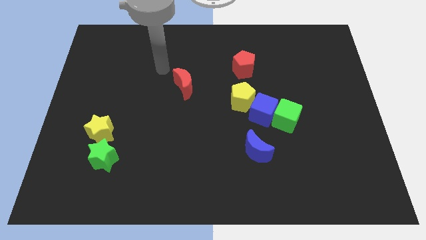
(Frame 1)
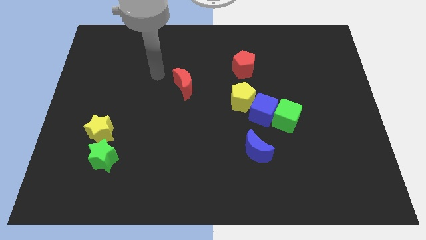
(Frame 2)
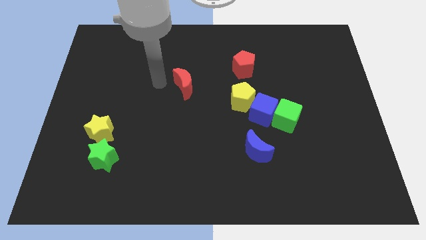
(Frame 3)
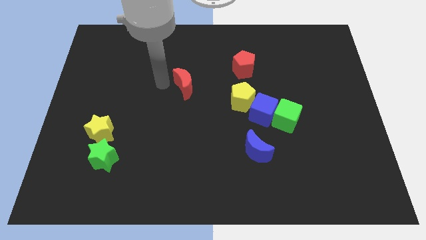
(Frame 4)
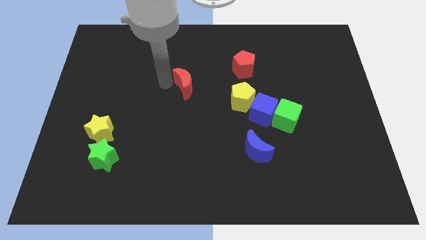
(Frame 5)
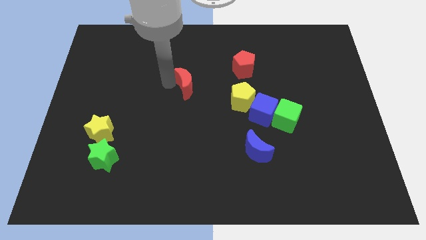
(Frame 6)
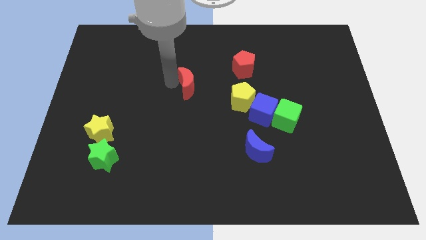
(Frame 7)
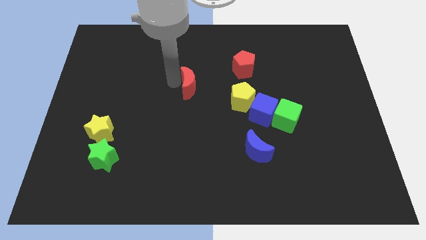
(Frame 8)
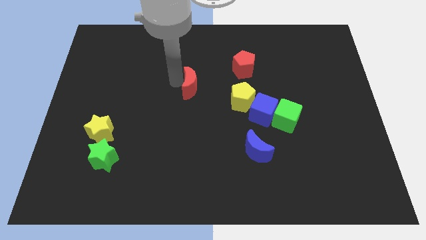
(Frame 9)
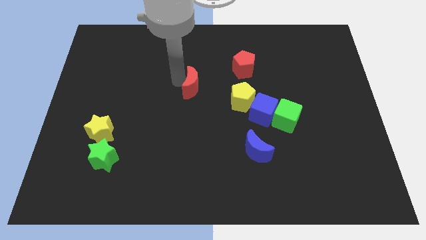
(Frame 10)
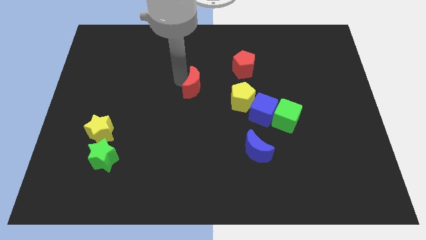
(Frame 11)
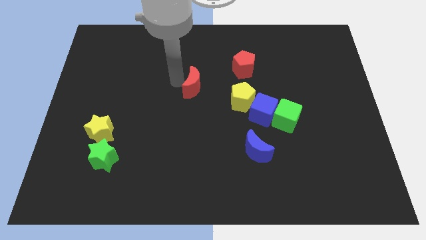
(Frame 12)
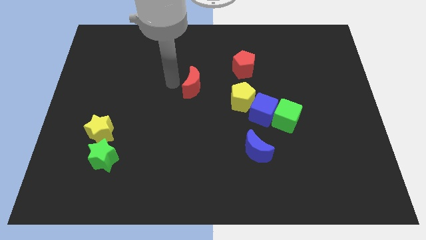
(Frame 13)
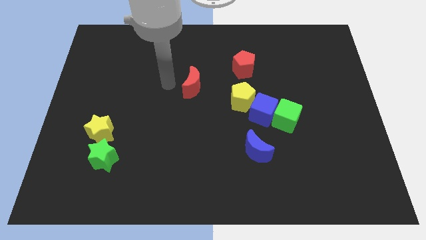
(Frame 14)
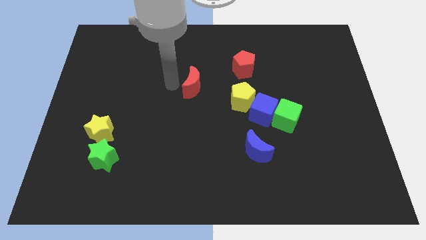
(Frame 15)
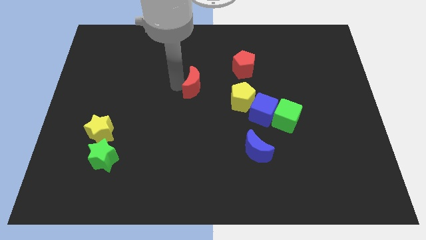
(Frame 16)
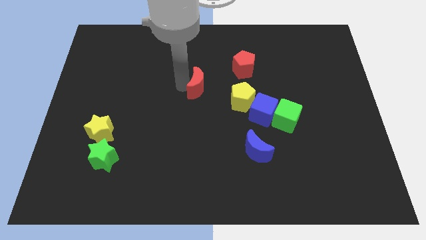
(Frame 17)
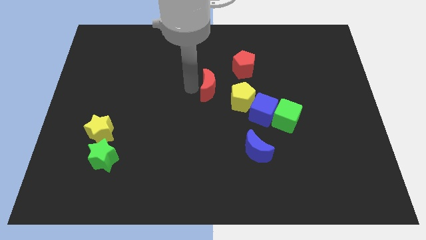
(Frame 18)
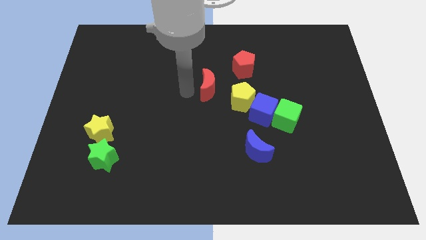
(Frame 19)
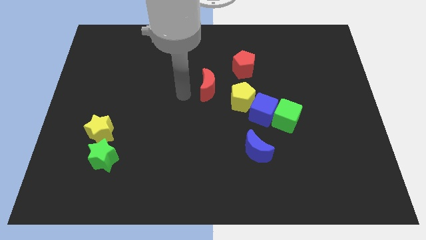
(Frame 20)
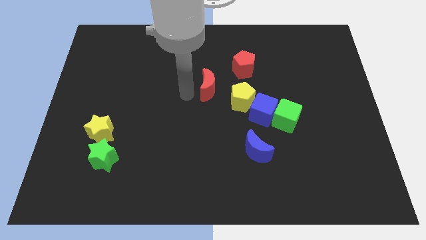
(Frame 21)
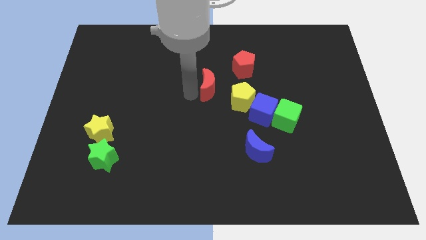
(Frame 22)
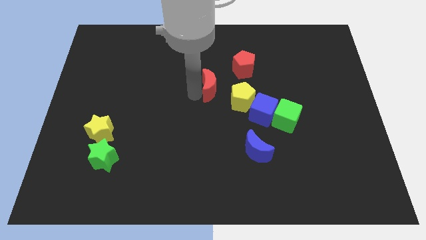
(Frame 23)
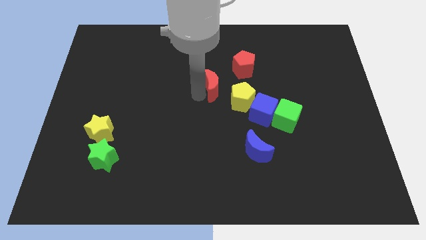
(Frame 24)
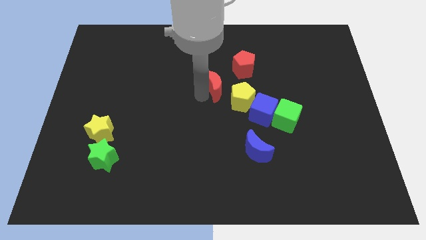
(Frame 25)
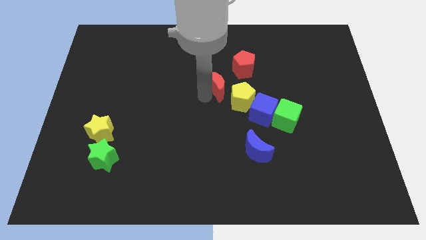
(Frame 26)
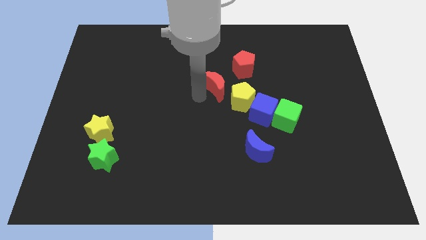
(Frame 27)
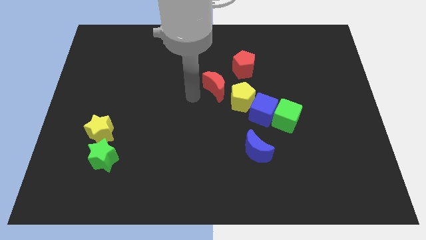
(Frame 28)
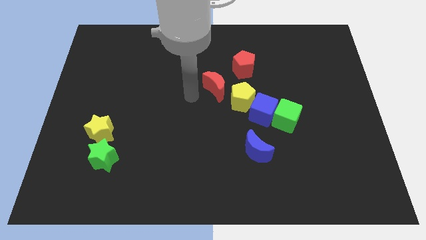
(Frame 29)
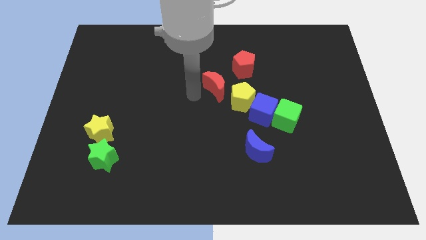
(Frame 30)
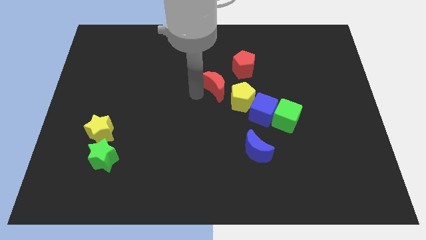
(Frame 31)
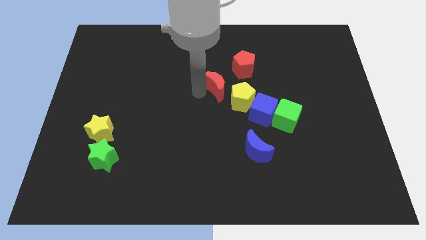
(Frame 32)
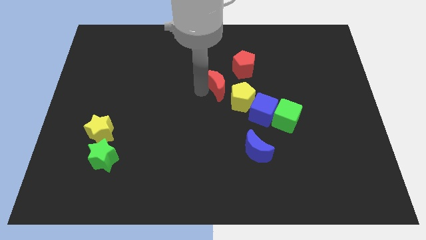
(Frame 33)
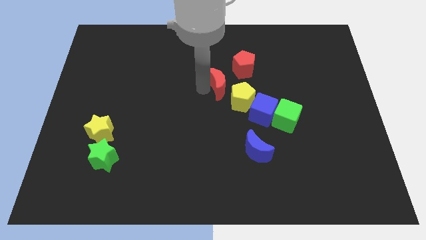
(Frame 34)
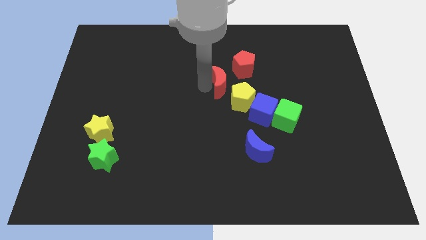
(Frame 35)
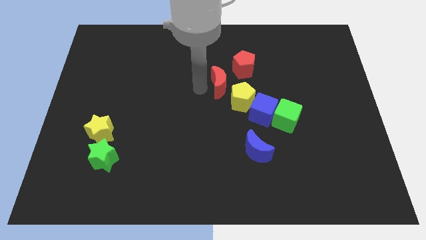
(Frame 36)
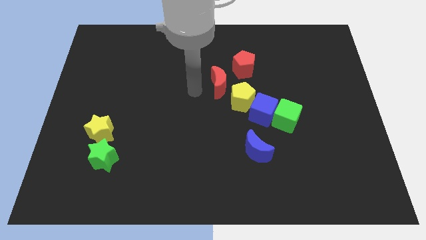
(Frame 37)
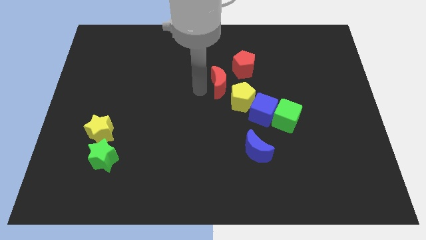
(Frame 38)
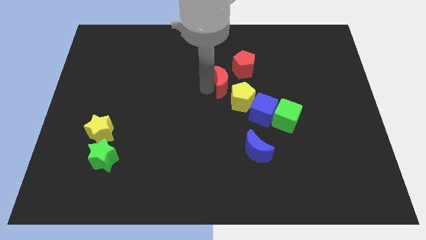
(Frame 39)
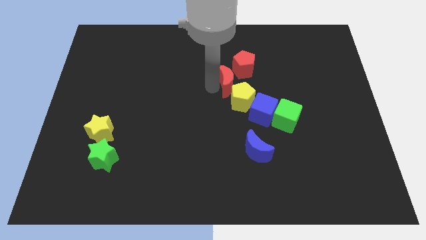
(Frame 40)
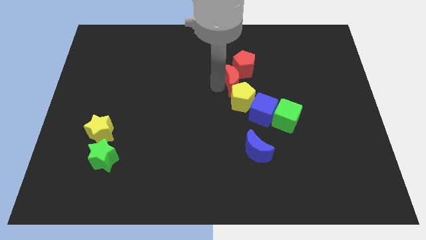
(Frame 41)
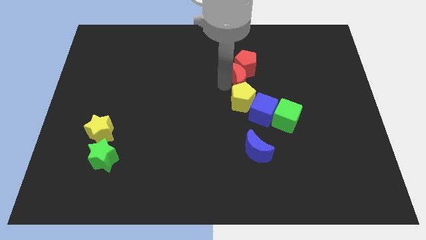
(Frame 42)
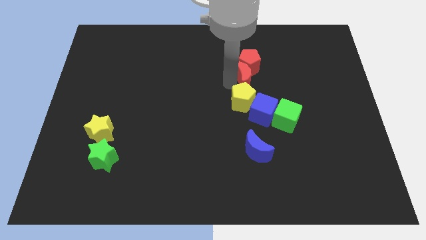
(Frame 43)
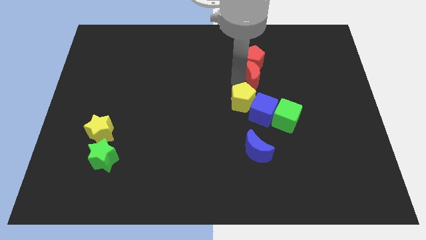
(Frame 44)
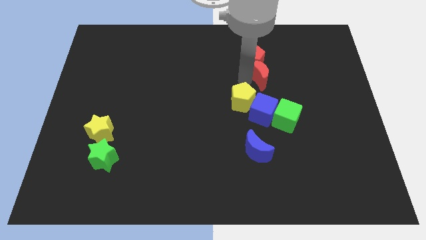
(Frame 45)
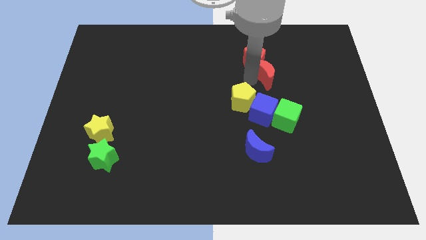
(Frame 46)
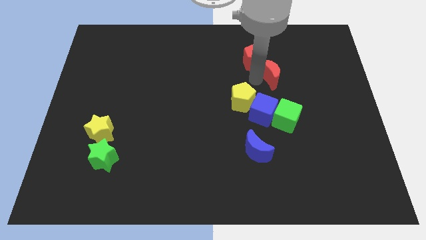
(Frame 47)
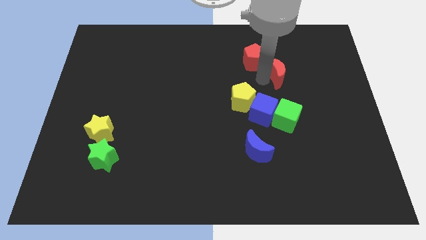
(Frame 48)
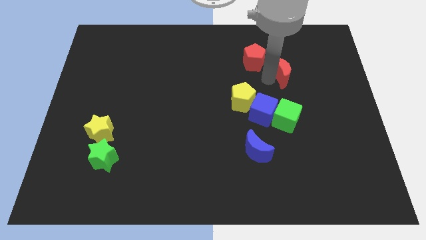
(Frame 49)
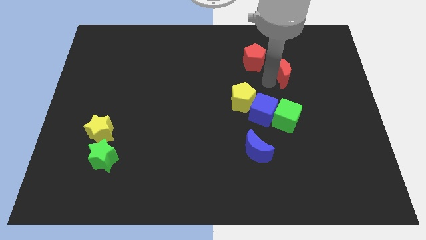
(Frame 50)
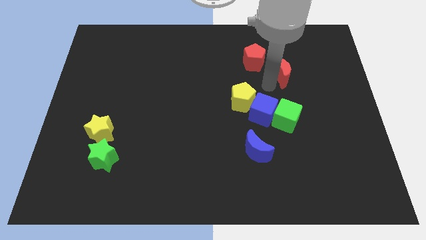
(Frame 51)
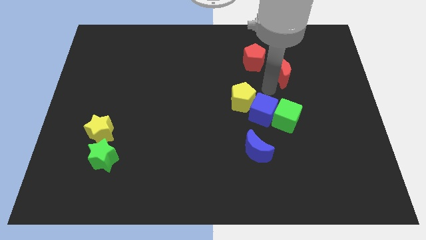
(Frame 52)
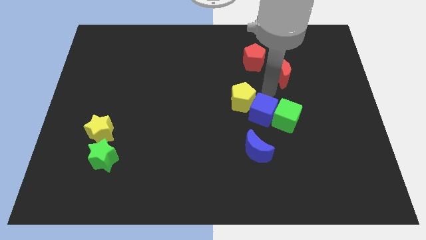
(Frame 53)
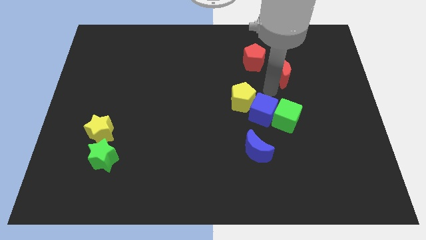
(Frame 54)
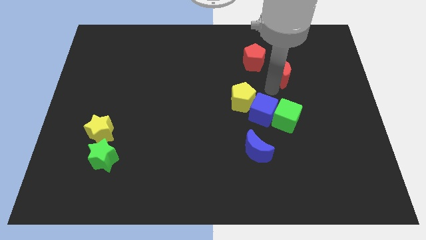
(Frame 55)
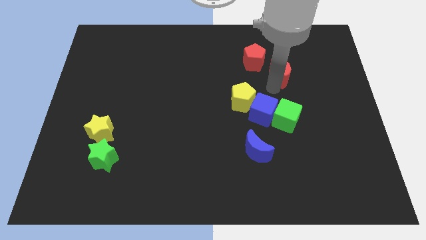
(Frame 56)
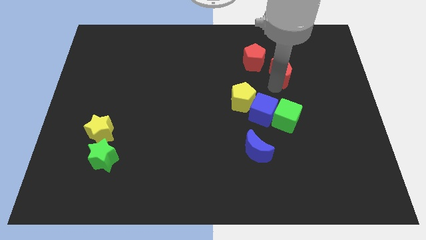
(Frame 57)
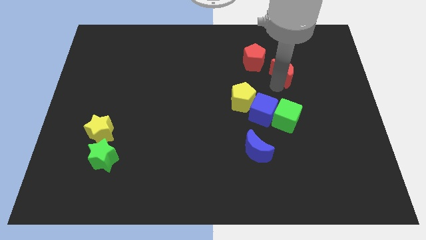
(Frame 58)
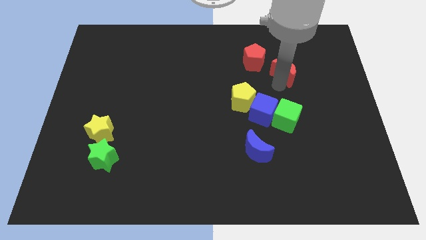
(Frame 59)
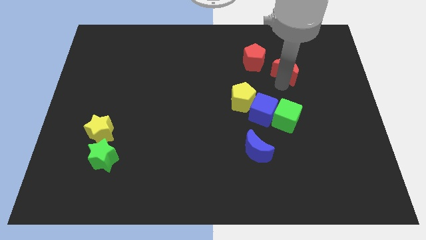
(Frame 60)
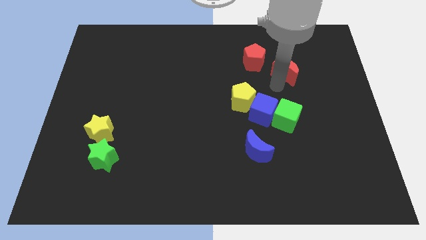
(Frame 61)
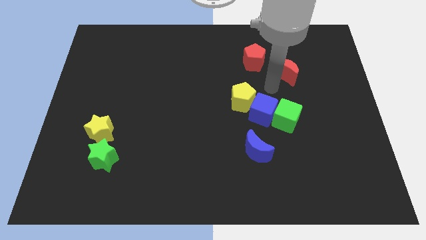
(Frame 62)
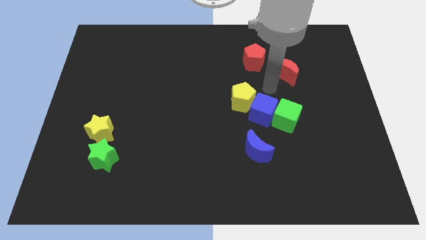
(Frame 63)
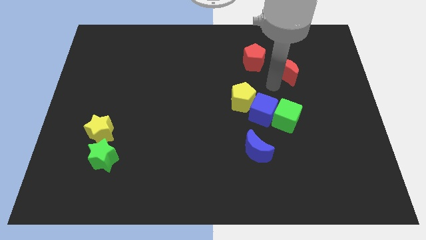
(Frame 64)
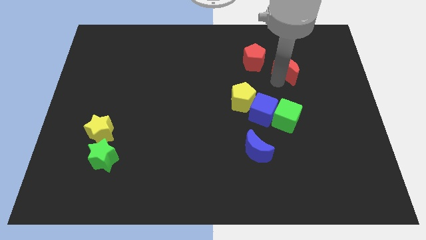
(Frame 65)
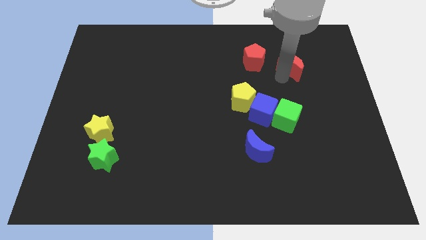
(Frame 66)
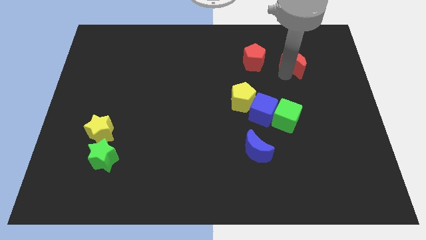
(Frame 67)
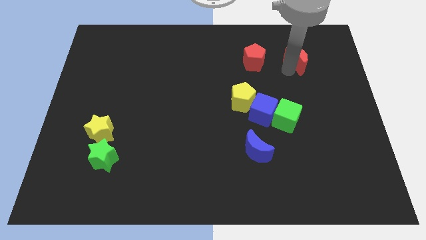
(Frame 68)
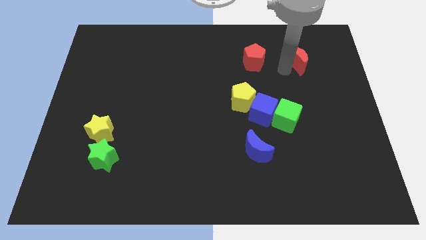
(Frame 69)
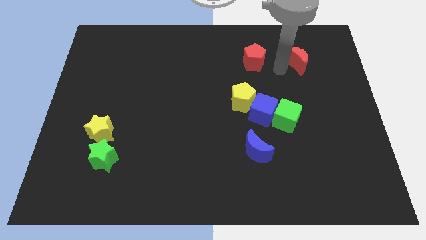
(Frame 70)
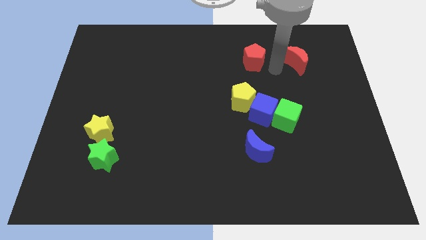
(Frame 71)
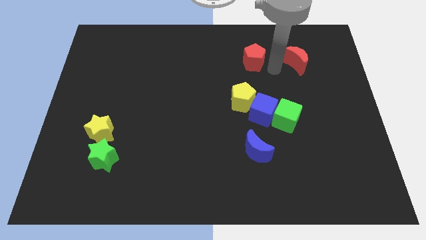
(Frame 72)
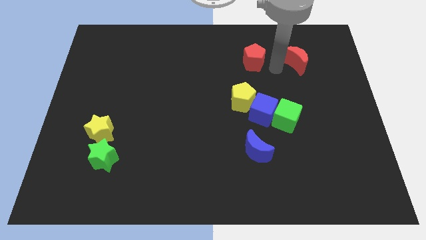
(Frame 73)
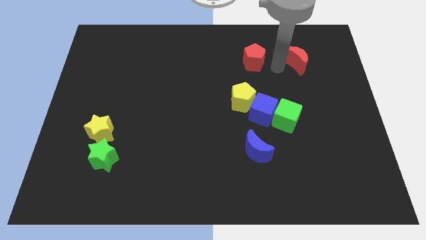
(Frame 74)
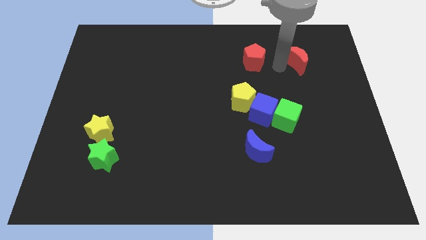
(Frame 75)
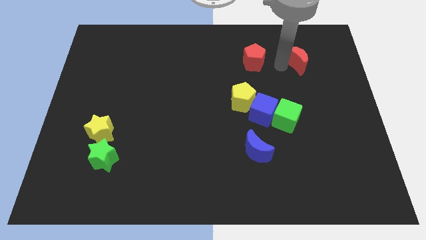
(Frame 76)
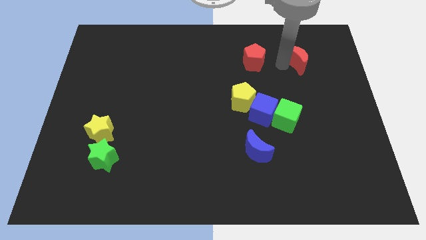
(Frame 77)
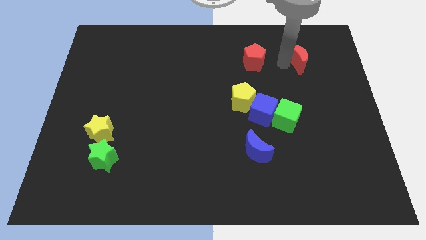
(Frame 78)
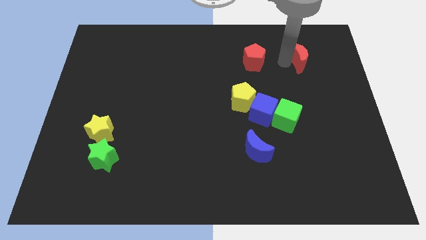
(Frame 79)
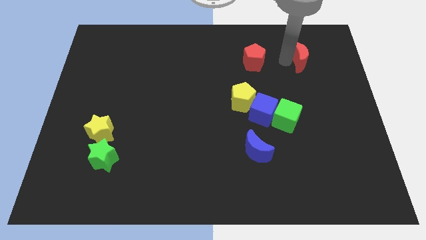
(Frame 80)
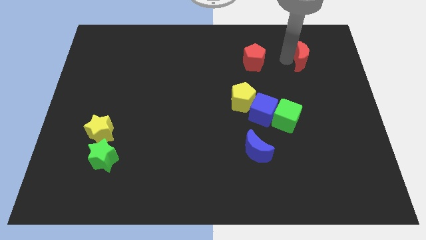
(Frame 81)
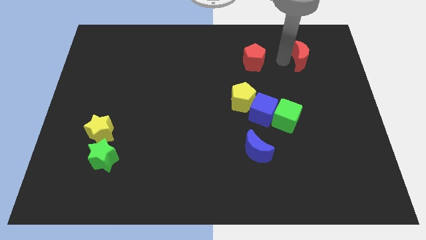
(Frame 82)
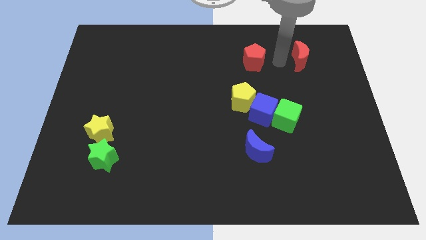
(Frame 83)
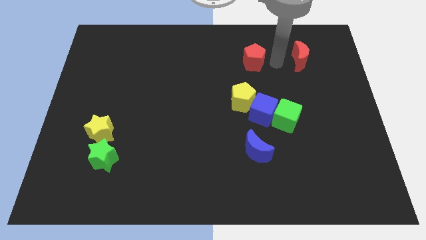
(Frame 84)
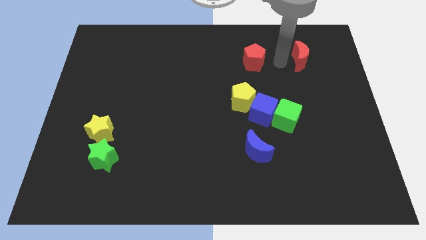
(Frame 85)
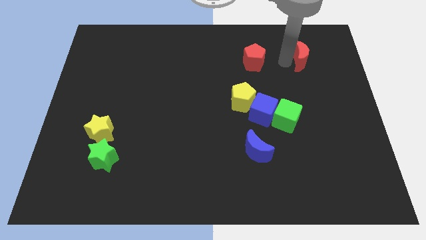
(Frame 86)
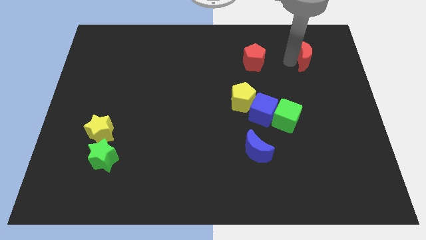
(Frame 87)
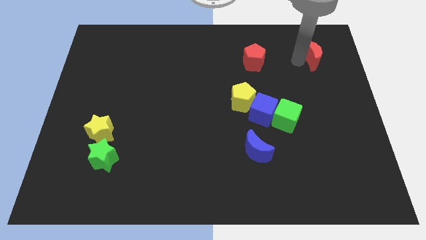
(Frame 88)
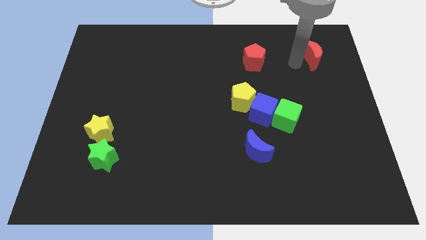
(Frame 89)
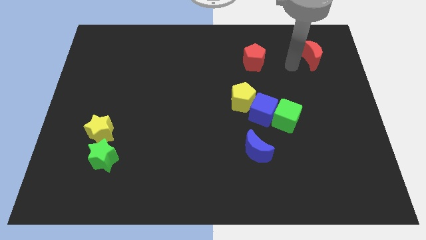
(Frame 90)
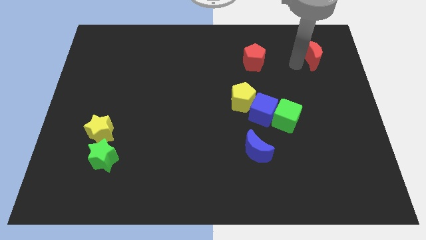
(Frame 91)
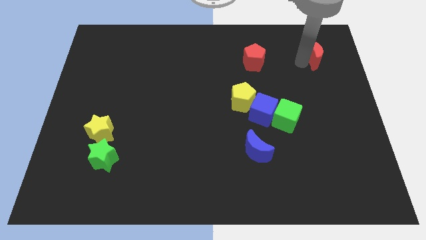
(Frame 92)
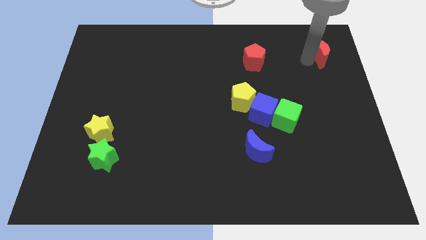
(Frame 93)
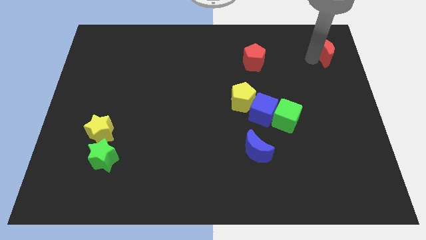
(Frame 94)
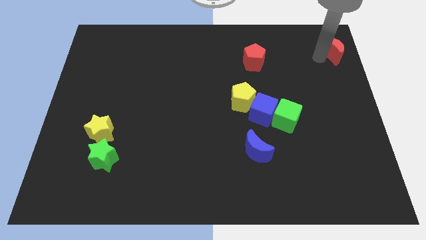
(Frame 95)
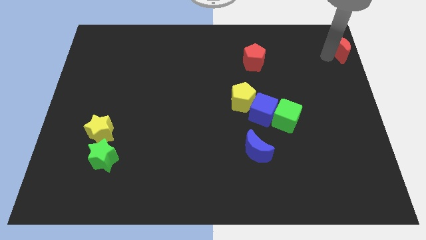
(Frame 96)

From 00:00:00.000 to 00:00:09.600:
move the red moon to the top right
